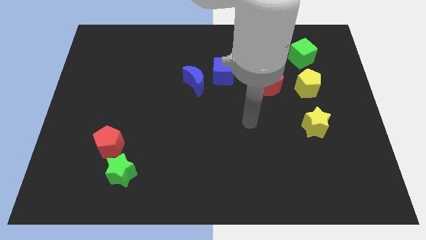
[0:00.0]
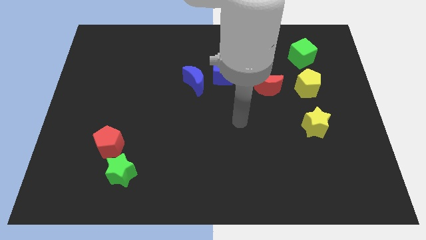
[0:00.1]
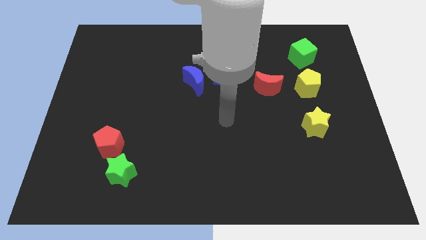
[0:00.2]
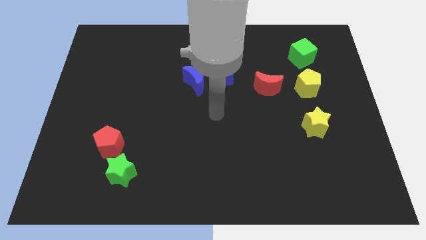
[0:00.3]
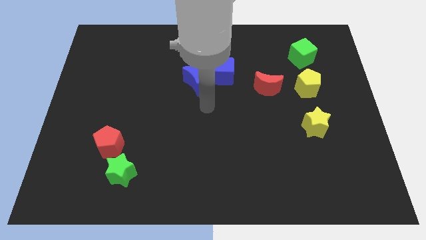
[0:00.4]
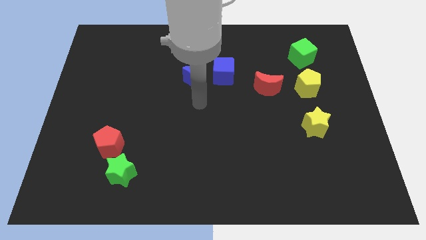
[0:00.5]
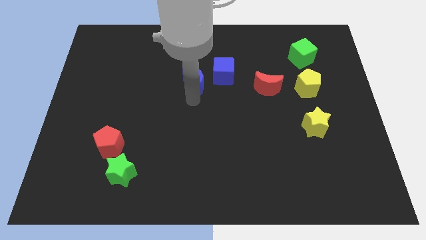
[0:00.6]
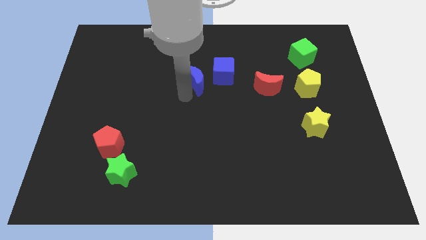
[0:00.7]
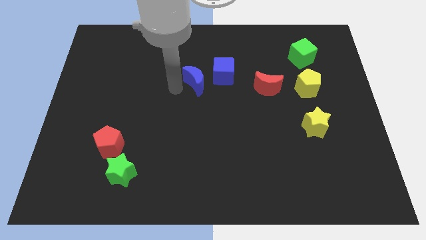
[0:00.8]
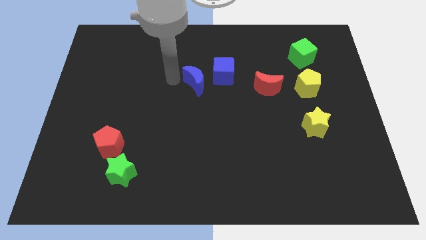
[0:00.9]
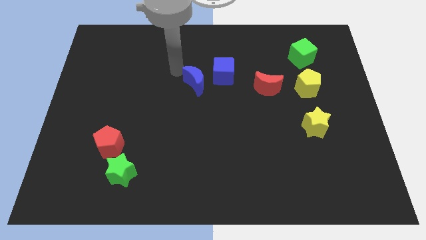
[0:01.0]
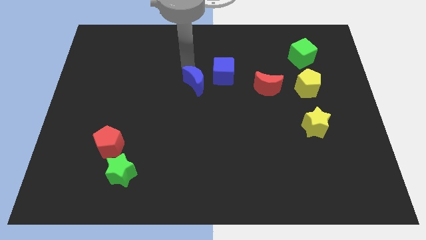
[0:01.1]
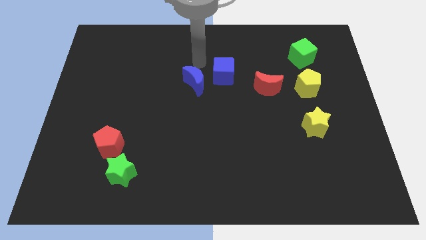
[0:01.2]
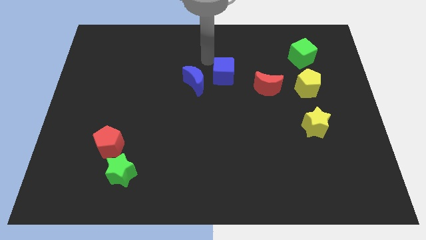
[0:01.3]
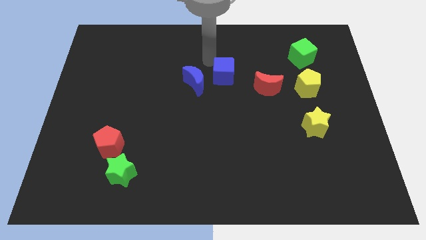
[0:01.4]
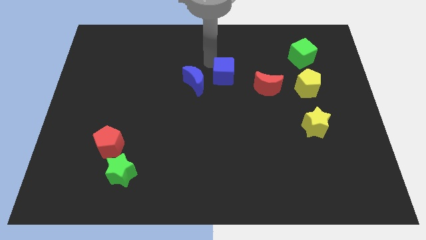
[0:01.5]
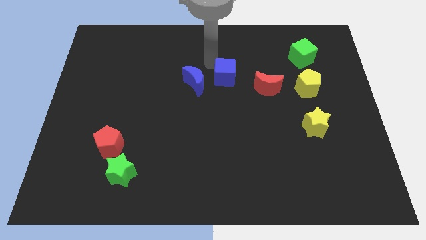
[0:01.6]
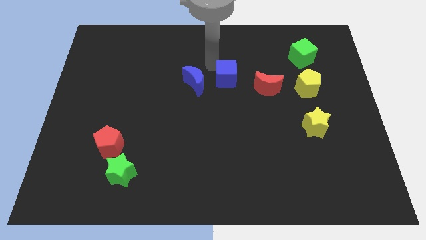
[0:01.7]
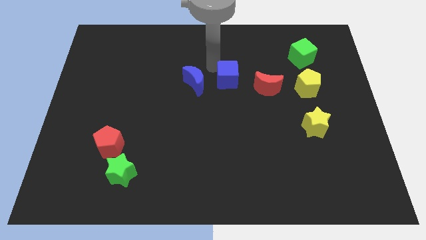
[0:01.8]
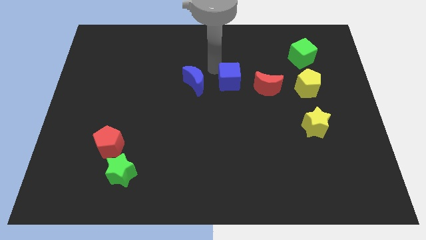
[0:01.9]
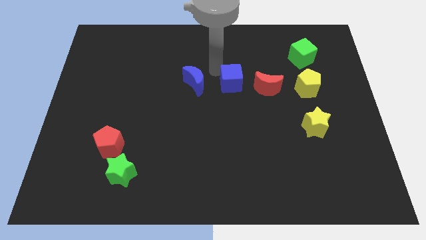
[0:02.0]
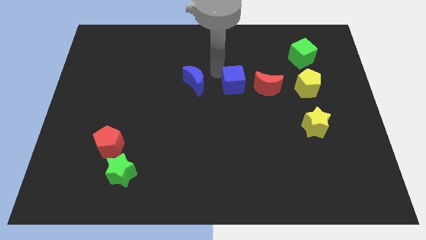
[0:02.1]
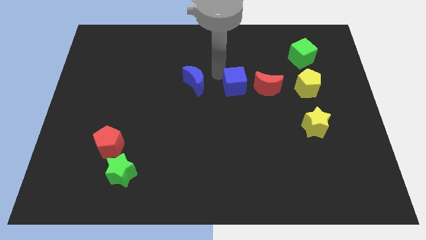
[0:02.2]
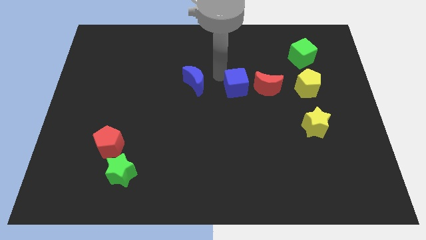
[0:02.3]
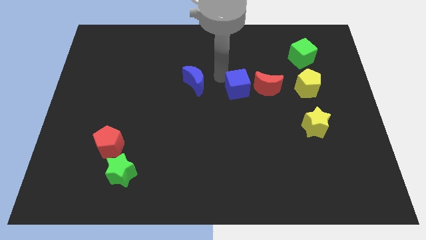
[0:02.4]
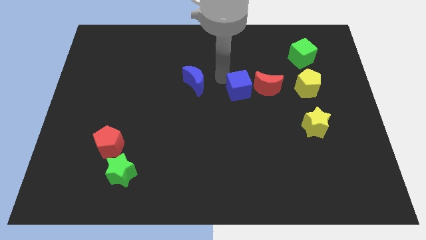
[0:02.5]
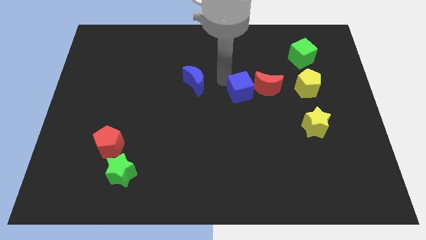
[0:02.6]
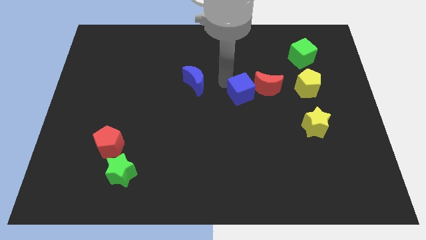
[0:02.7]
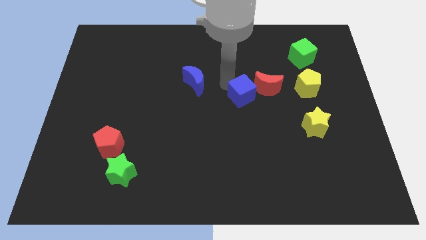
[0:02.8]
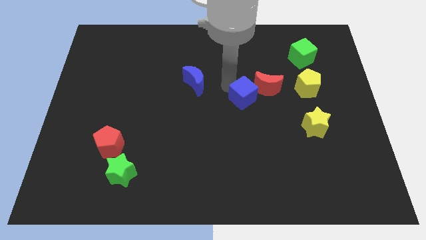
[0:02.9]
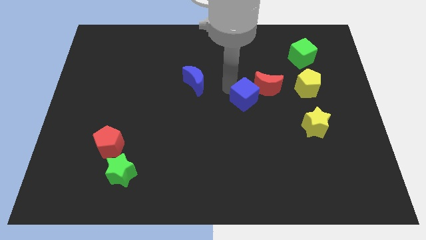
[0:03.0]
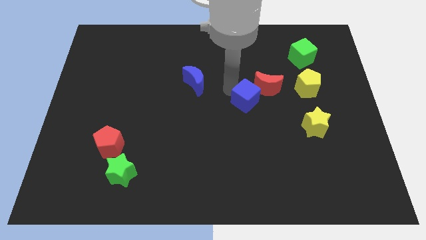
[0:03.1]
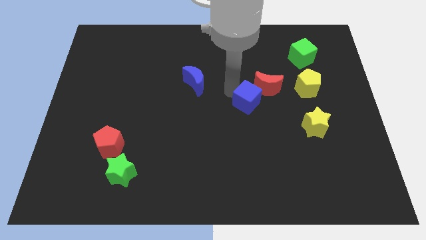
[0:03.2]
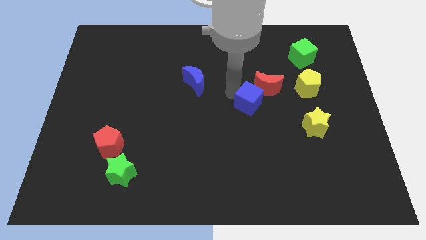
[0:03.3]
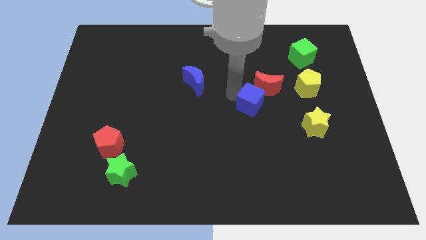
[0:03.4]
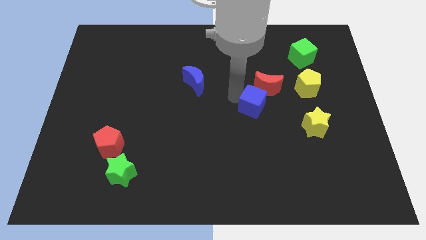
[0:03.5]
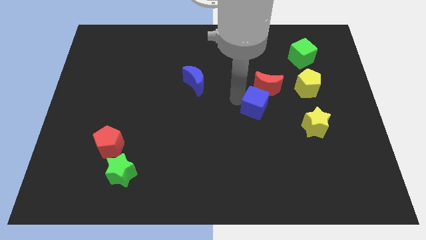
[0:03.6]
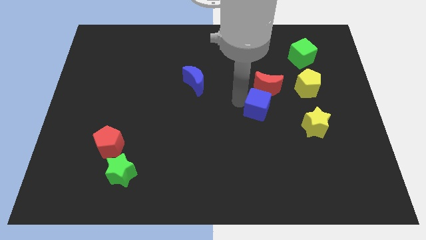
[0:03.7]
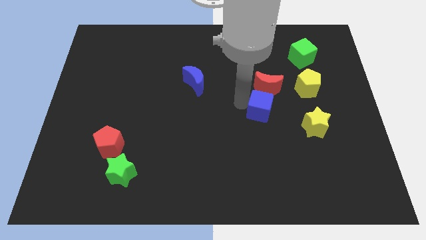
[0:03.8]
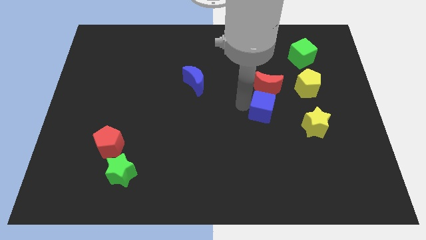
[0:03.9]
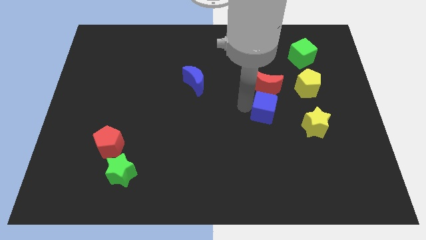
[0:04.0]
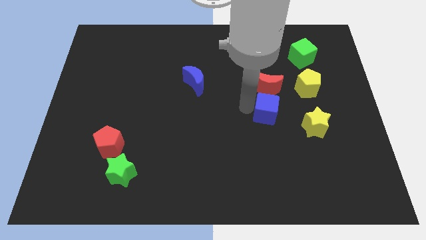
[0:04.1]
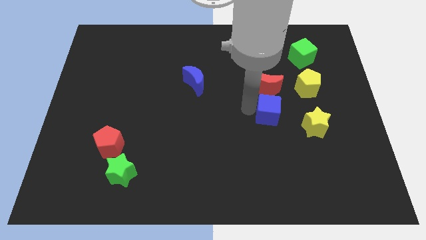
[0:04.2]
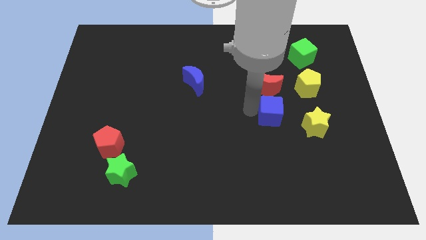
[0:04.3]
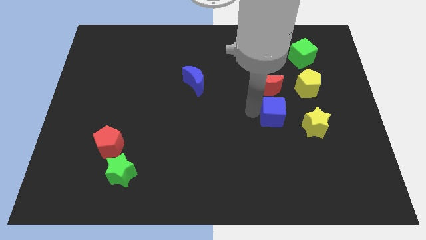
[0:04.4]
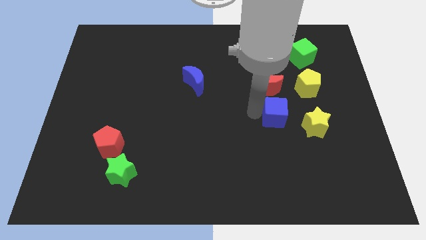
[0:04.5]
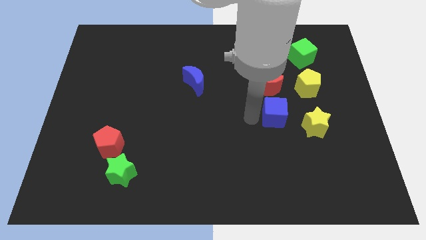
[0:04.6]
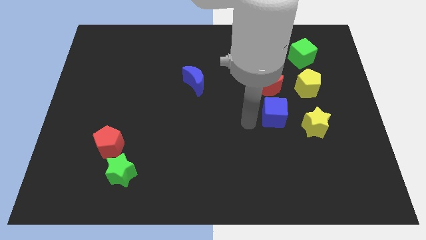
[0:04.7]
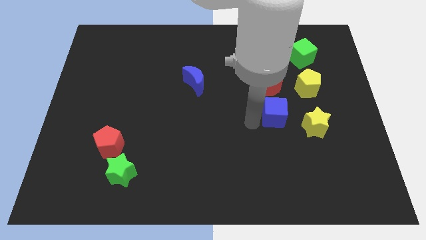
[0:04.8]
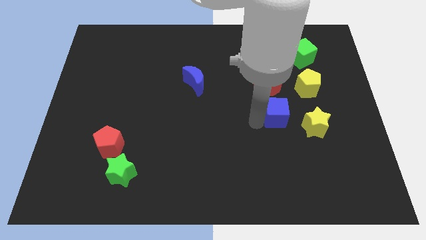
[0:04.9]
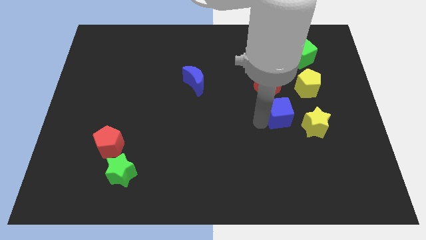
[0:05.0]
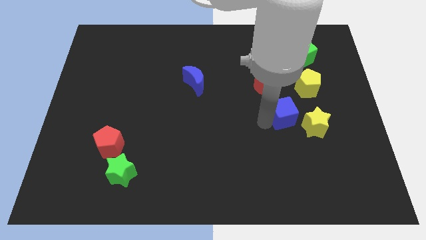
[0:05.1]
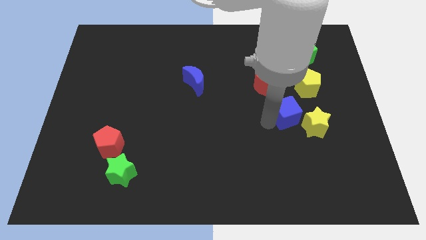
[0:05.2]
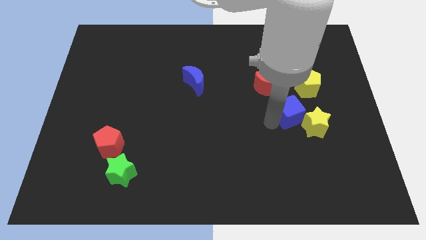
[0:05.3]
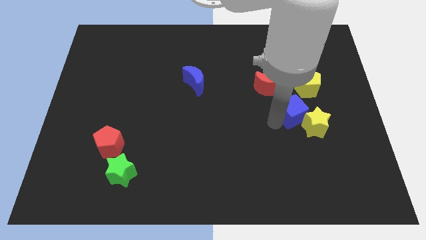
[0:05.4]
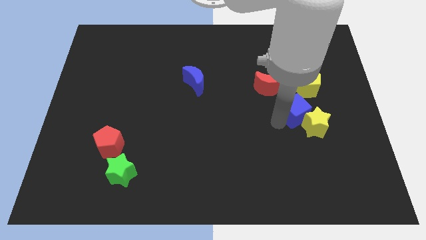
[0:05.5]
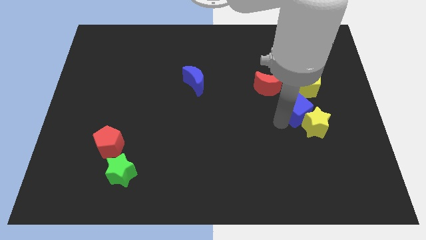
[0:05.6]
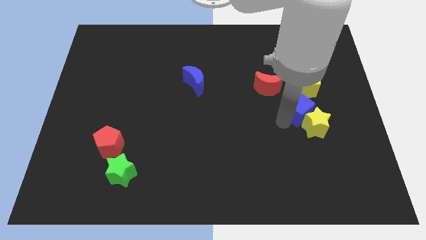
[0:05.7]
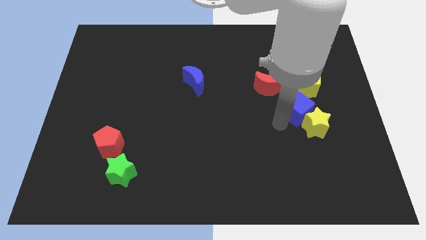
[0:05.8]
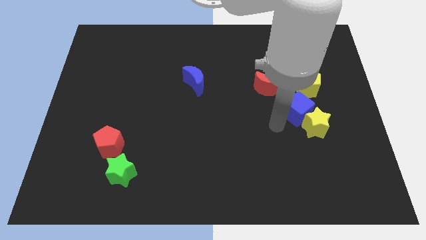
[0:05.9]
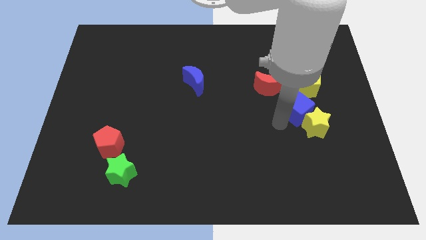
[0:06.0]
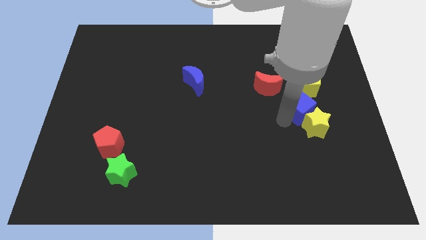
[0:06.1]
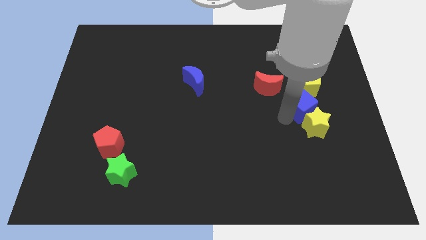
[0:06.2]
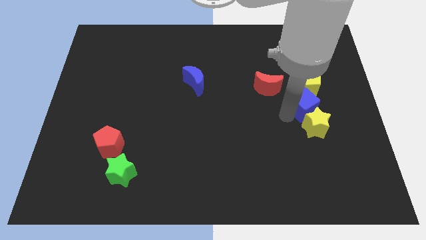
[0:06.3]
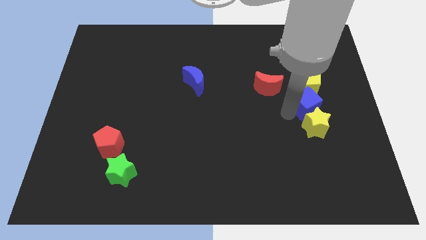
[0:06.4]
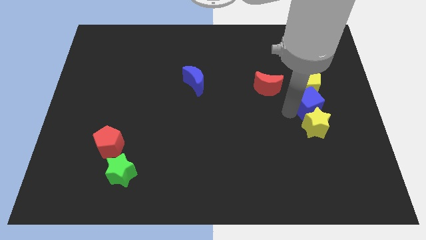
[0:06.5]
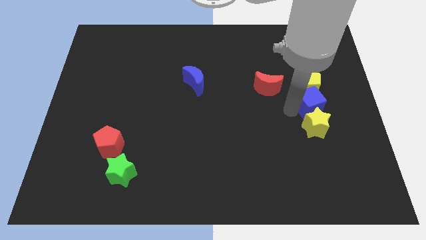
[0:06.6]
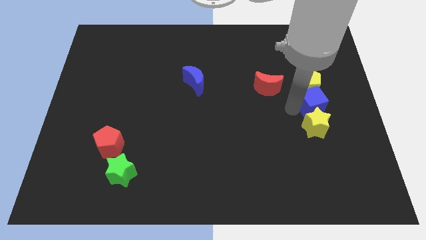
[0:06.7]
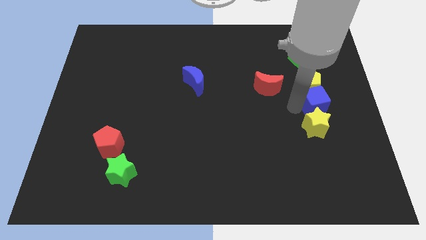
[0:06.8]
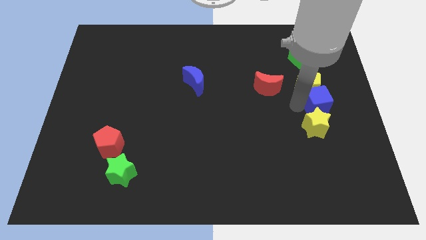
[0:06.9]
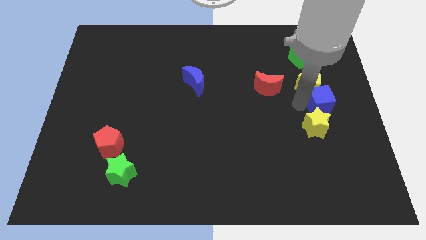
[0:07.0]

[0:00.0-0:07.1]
move the blue cube to the center right
